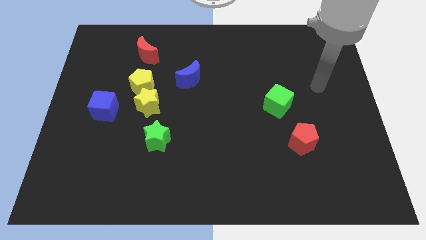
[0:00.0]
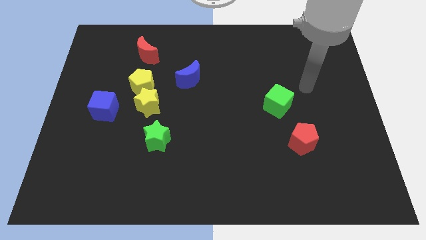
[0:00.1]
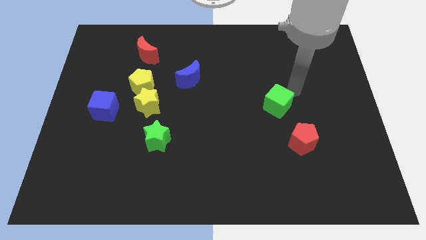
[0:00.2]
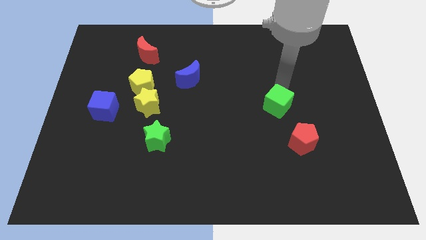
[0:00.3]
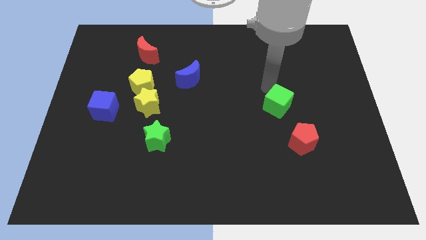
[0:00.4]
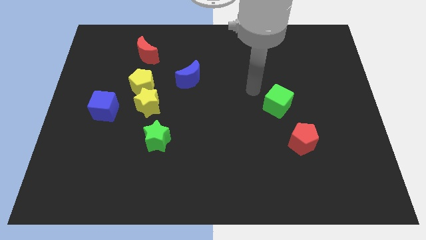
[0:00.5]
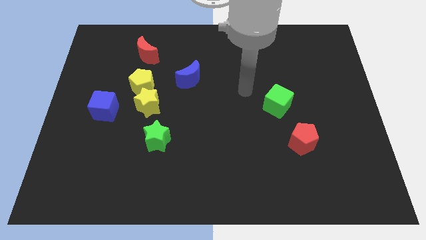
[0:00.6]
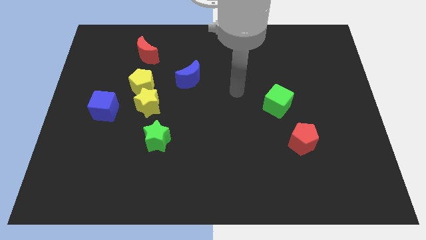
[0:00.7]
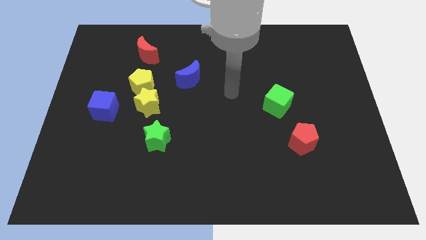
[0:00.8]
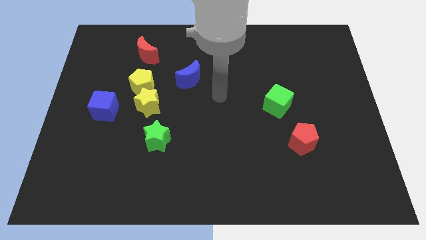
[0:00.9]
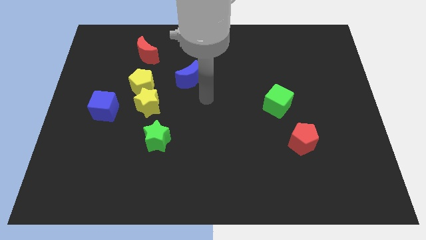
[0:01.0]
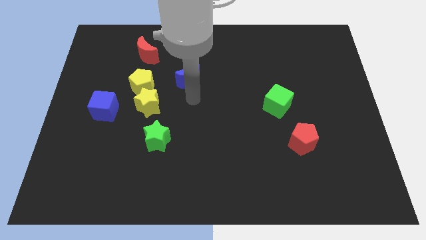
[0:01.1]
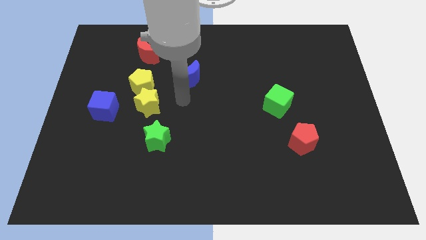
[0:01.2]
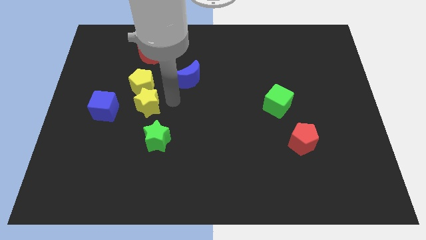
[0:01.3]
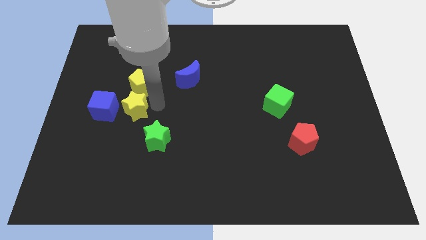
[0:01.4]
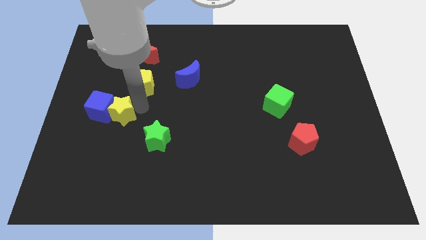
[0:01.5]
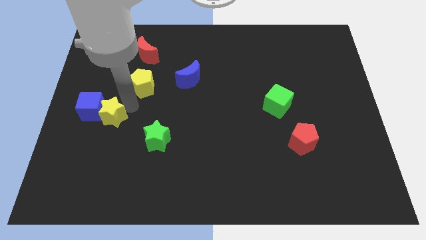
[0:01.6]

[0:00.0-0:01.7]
pull the yellow pentagon apart from the yellow star

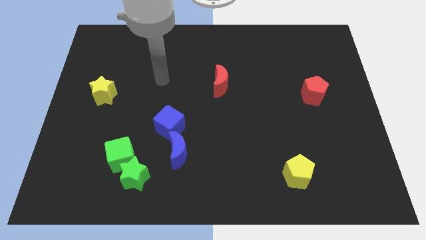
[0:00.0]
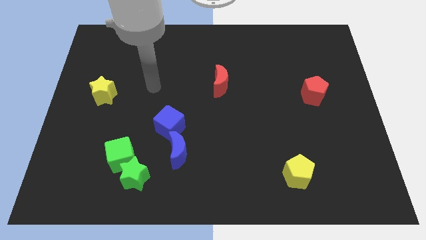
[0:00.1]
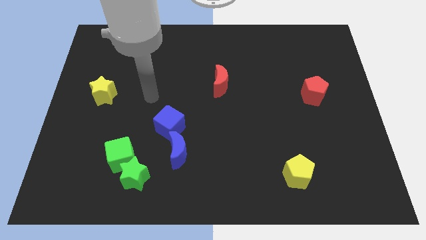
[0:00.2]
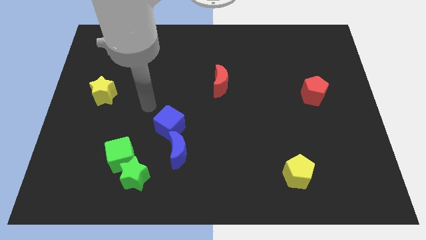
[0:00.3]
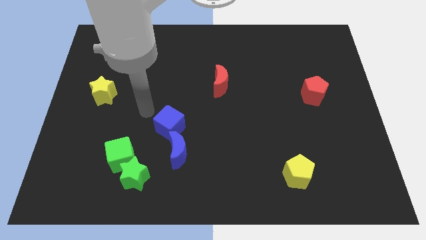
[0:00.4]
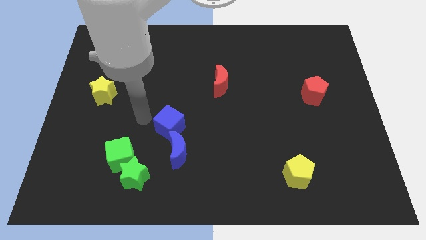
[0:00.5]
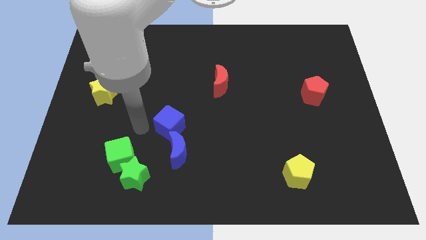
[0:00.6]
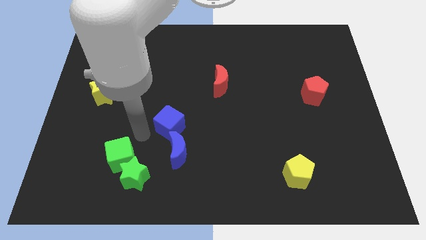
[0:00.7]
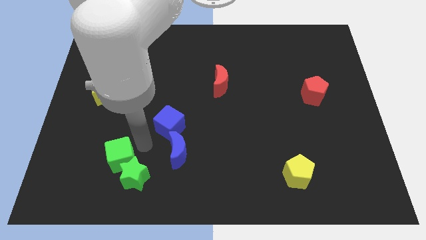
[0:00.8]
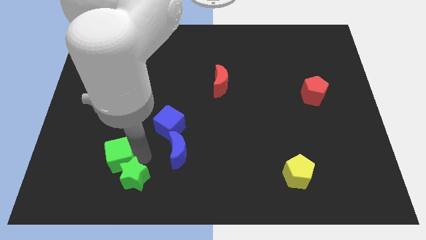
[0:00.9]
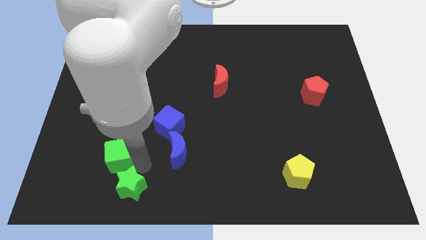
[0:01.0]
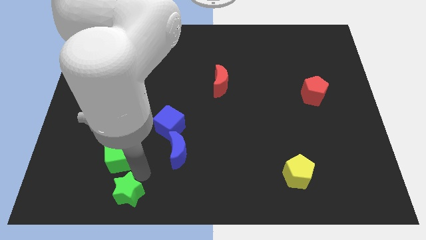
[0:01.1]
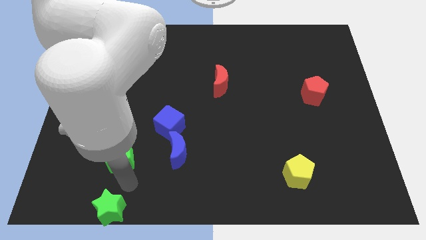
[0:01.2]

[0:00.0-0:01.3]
separate the green cube from the green star

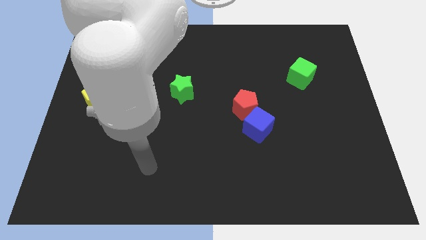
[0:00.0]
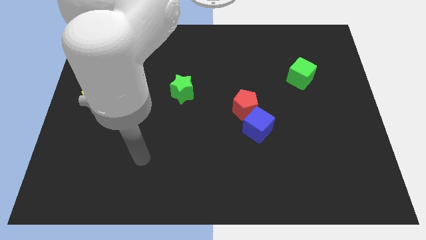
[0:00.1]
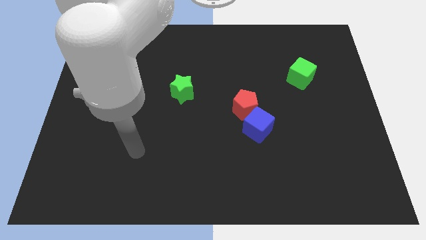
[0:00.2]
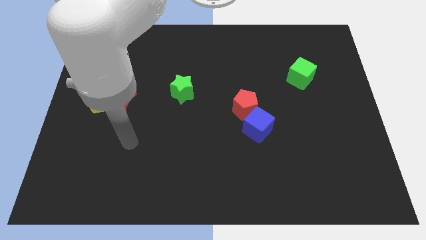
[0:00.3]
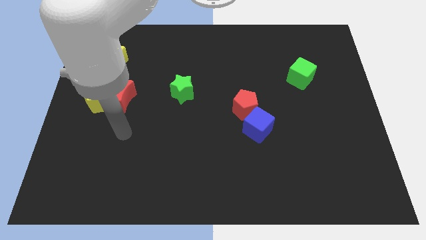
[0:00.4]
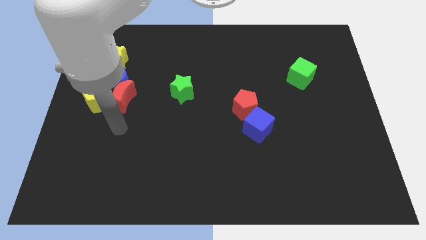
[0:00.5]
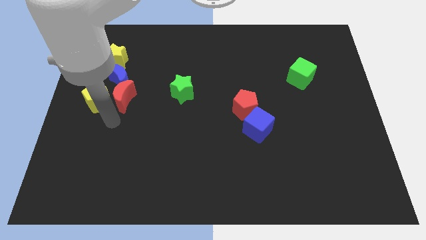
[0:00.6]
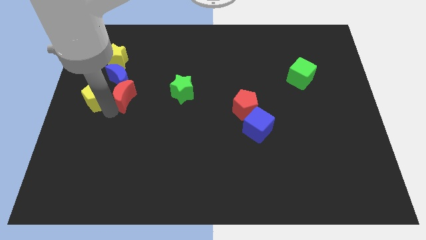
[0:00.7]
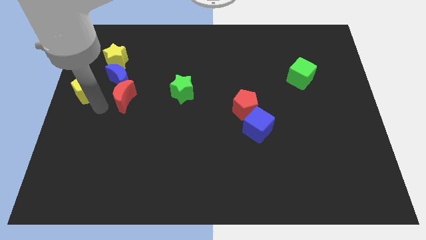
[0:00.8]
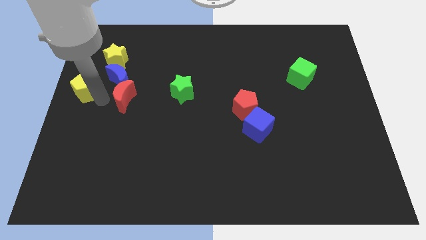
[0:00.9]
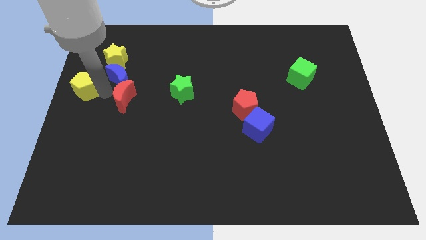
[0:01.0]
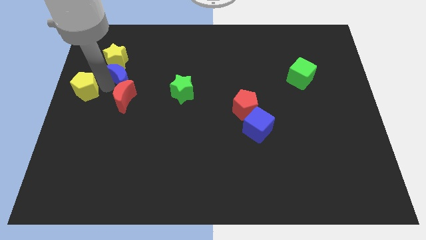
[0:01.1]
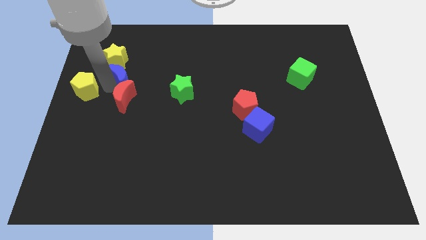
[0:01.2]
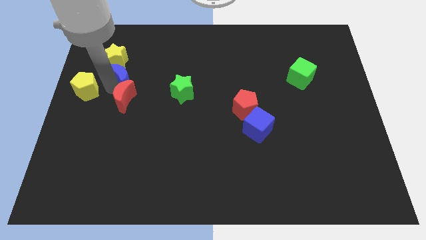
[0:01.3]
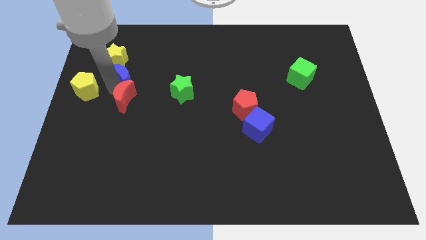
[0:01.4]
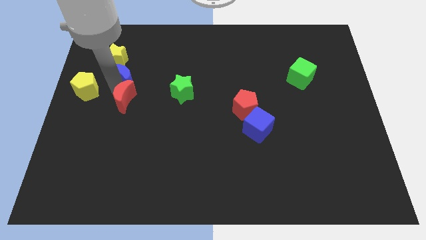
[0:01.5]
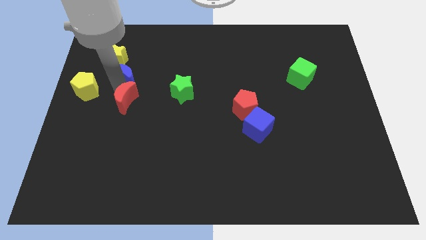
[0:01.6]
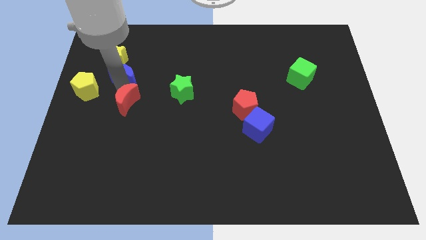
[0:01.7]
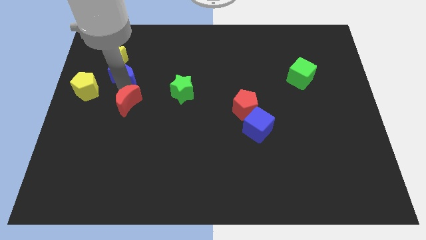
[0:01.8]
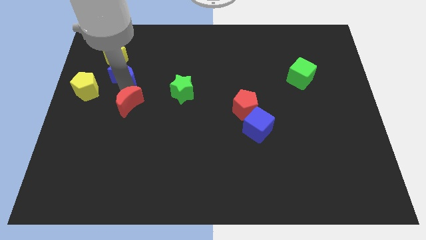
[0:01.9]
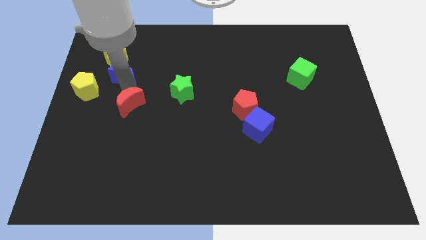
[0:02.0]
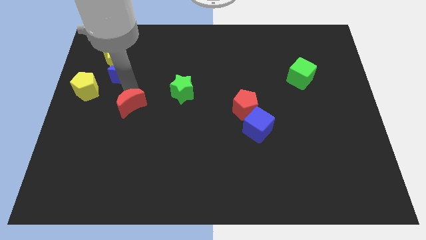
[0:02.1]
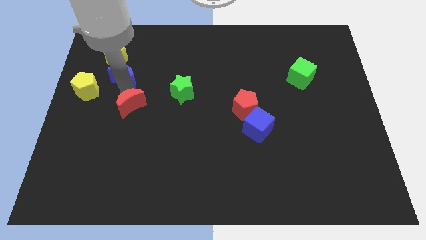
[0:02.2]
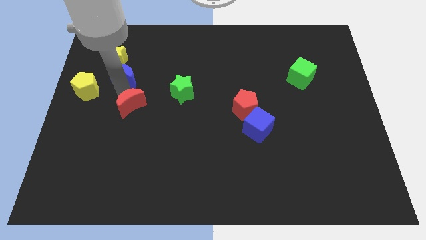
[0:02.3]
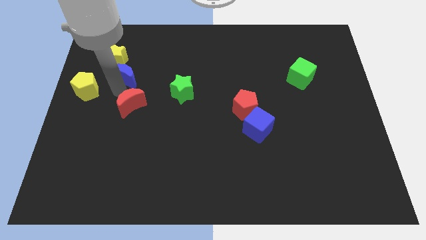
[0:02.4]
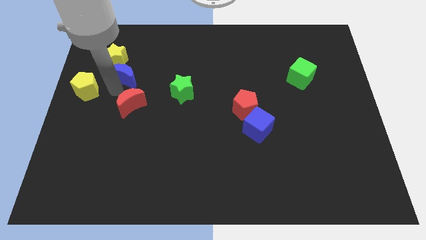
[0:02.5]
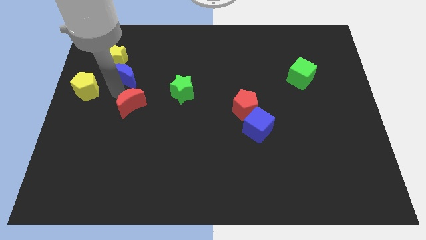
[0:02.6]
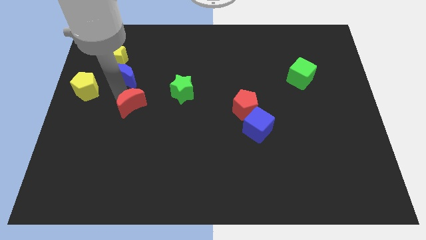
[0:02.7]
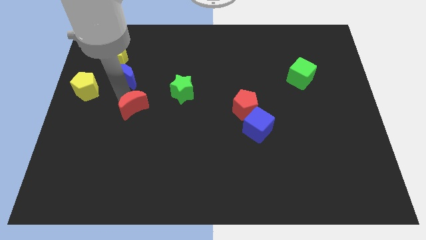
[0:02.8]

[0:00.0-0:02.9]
move the red moon away from the yellow pentagon and blue moon

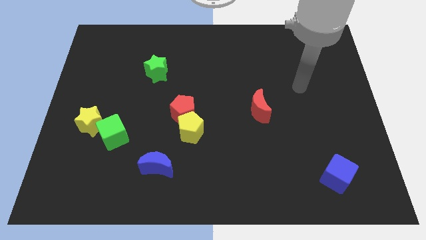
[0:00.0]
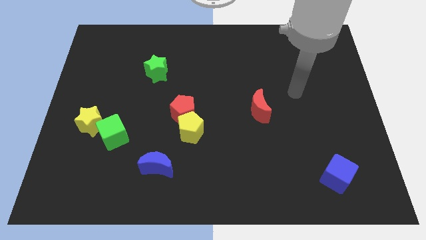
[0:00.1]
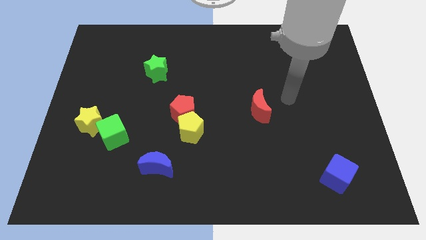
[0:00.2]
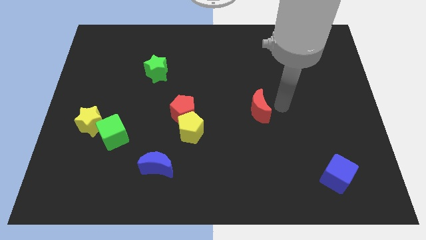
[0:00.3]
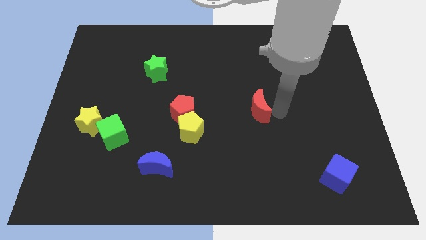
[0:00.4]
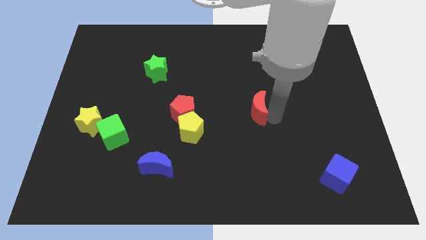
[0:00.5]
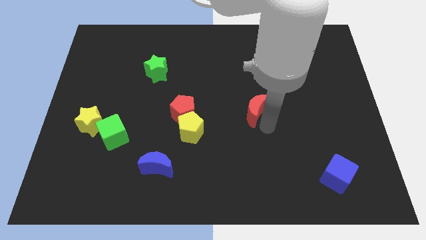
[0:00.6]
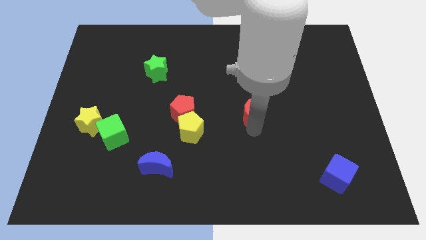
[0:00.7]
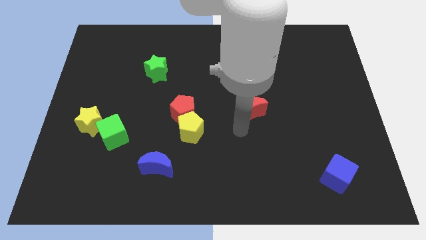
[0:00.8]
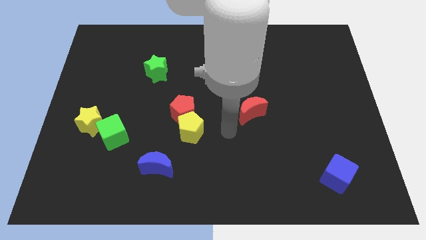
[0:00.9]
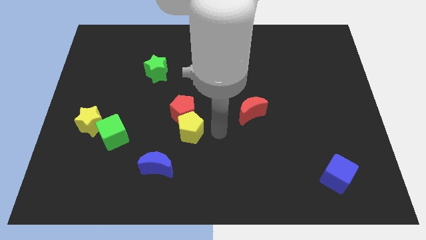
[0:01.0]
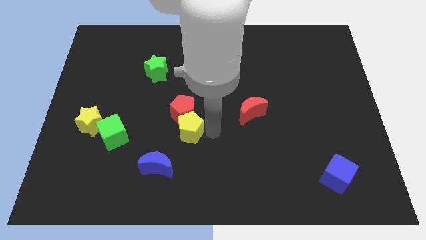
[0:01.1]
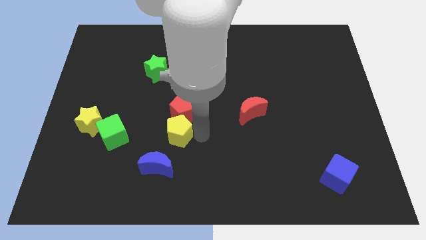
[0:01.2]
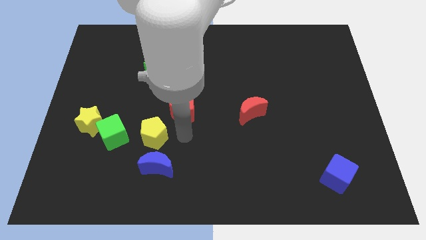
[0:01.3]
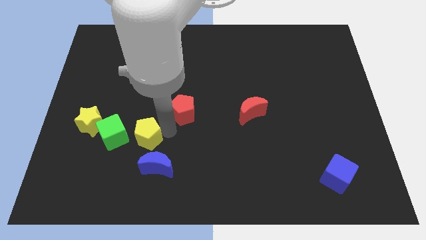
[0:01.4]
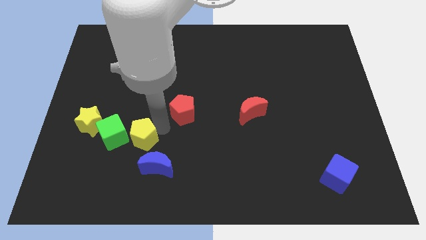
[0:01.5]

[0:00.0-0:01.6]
pull the red pentagon apart from the yellow pentagon

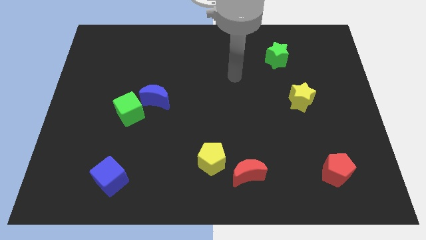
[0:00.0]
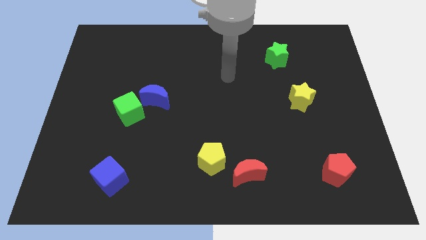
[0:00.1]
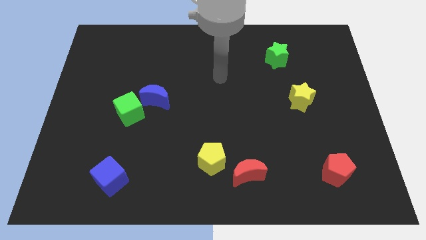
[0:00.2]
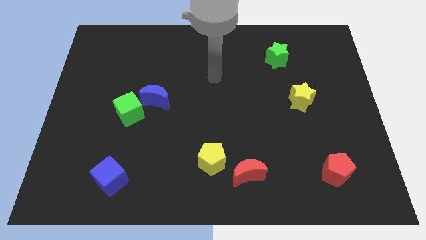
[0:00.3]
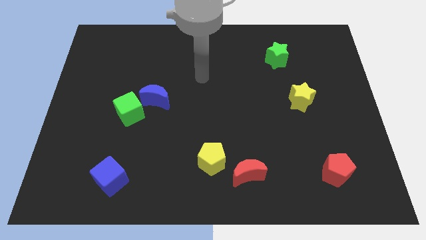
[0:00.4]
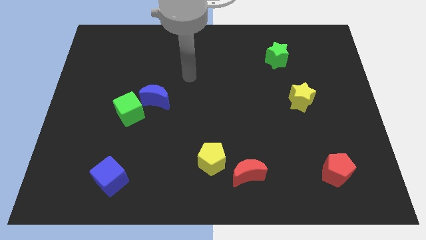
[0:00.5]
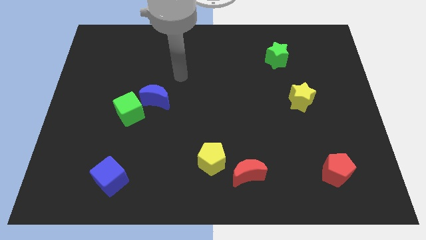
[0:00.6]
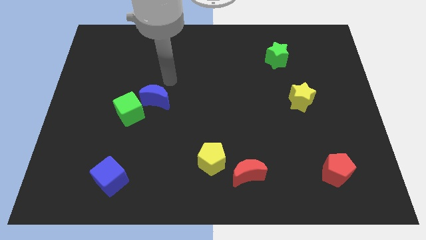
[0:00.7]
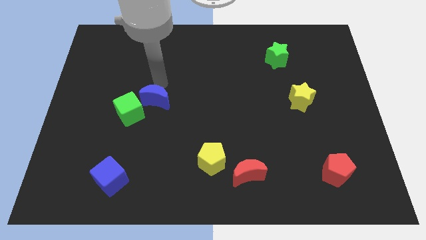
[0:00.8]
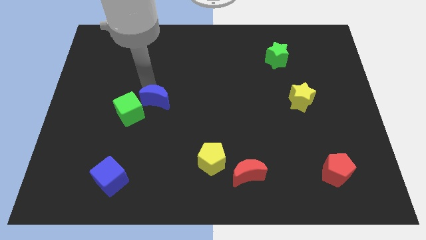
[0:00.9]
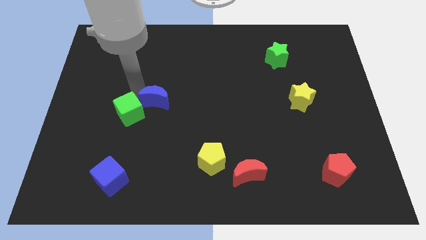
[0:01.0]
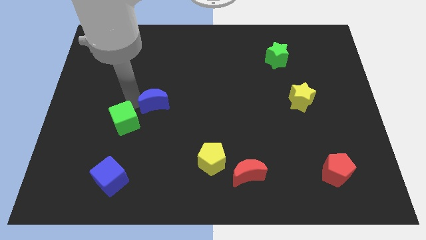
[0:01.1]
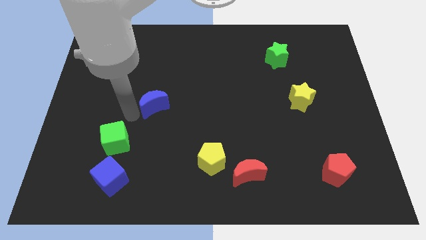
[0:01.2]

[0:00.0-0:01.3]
pull the blue moon apart from the green cube

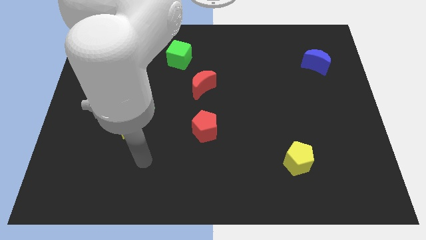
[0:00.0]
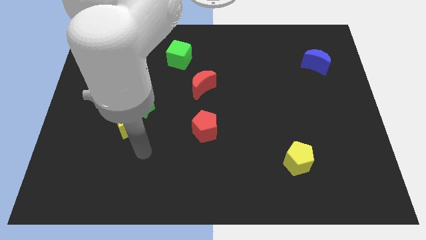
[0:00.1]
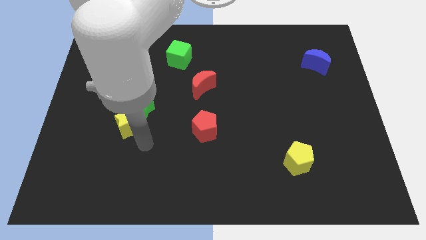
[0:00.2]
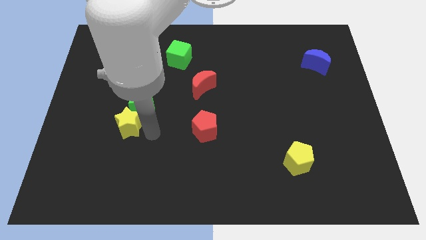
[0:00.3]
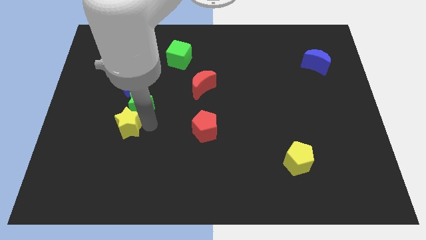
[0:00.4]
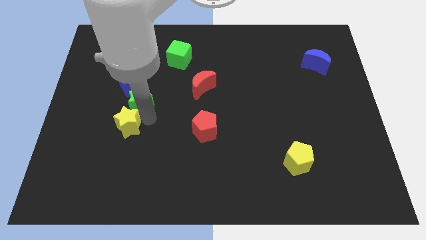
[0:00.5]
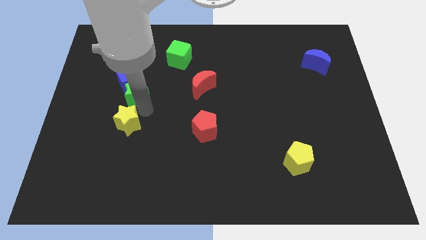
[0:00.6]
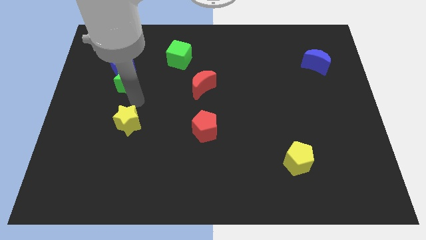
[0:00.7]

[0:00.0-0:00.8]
pull the yellow star apart from the green star
